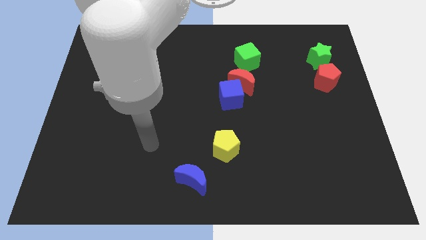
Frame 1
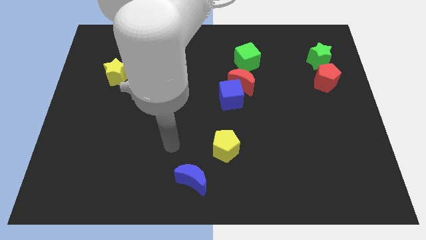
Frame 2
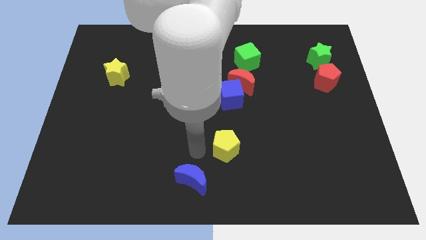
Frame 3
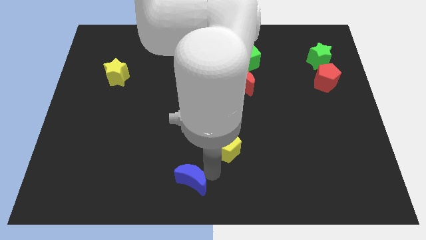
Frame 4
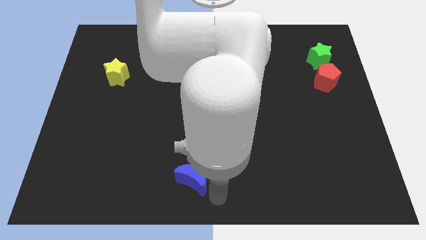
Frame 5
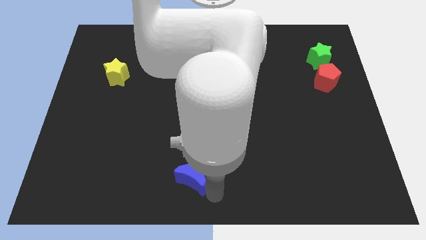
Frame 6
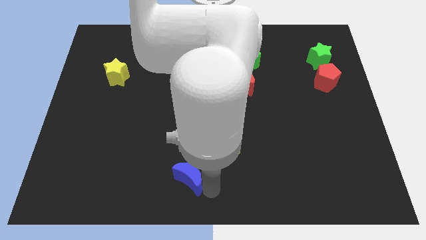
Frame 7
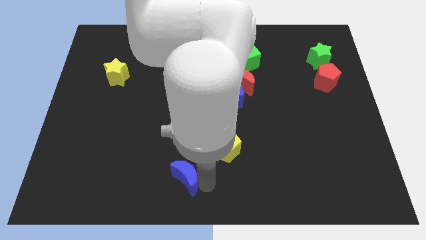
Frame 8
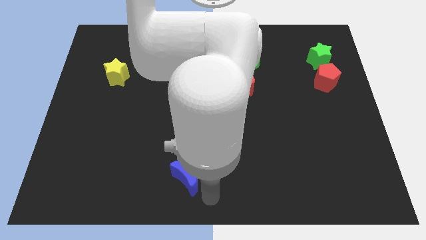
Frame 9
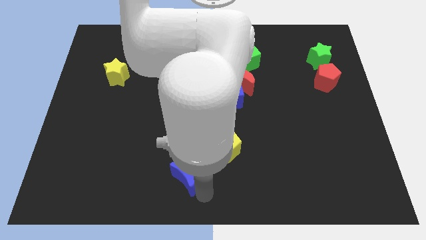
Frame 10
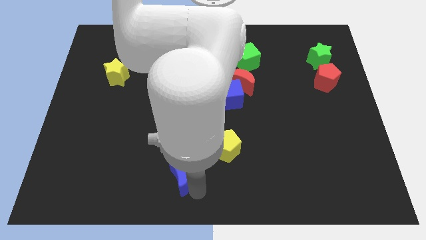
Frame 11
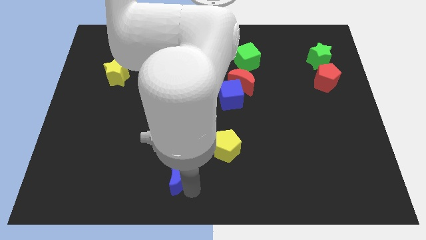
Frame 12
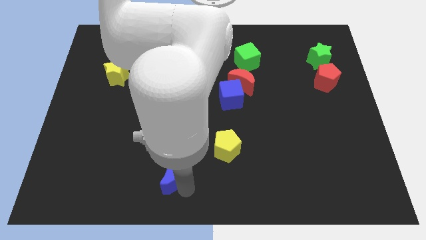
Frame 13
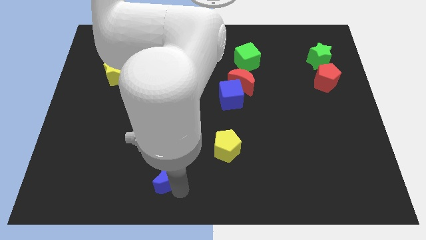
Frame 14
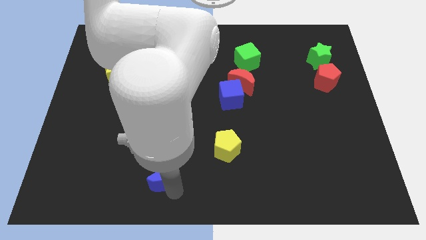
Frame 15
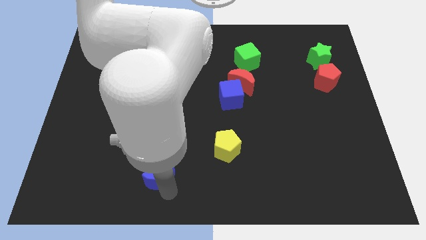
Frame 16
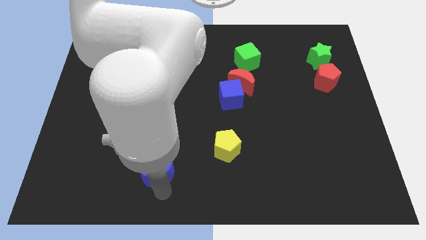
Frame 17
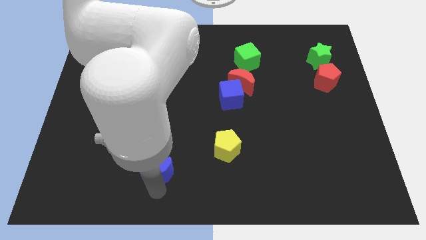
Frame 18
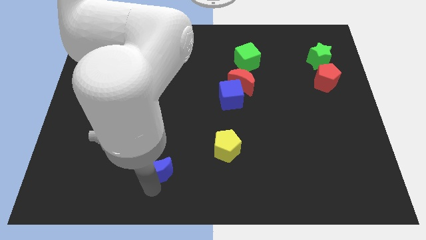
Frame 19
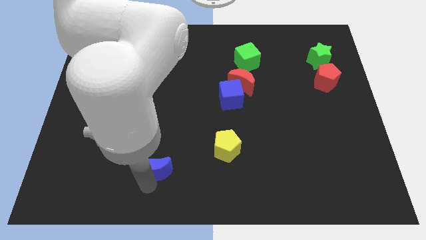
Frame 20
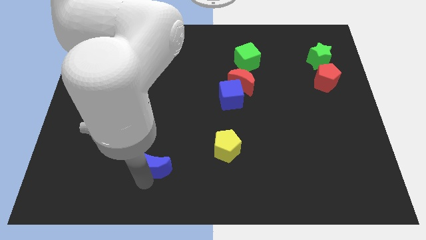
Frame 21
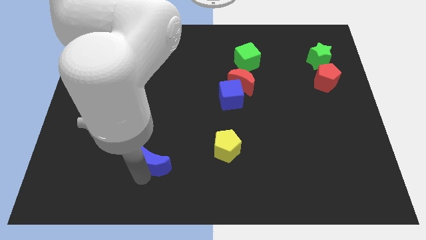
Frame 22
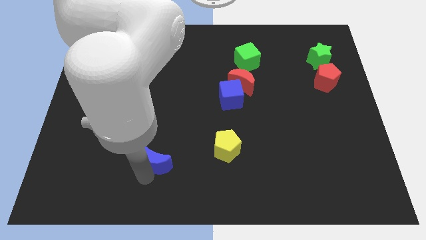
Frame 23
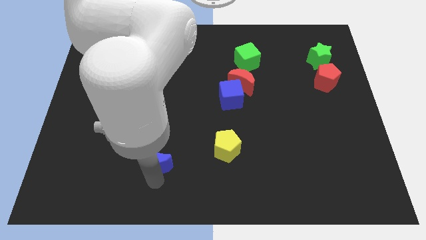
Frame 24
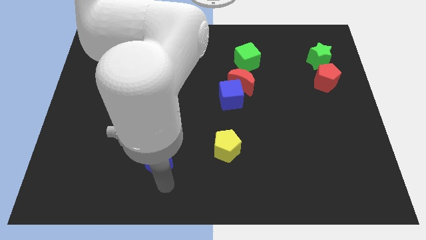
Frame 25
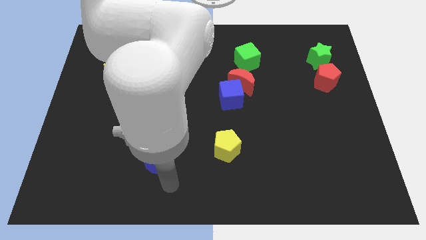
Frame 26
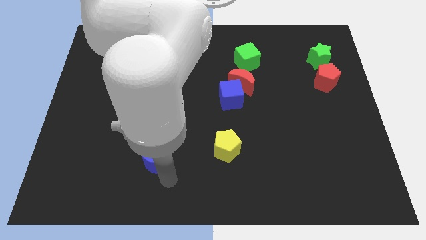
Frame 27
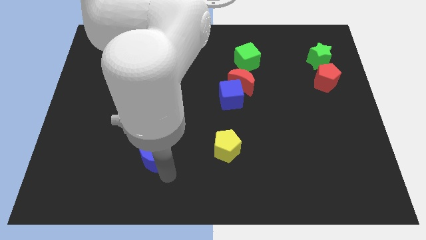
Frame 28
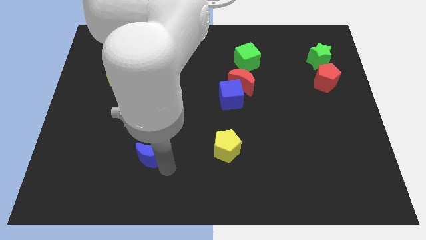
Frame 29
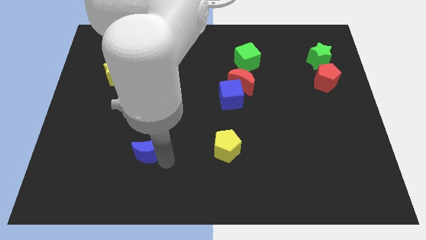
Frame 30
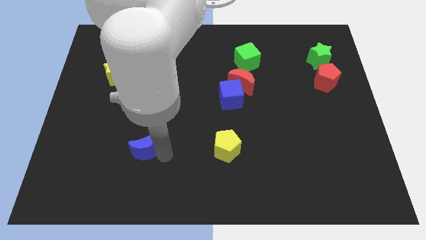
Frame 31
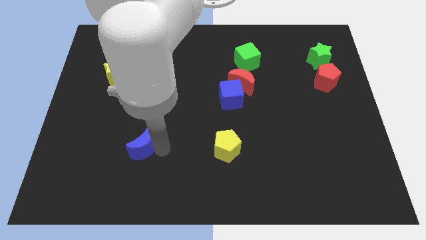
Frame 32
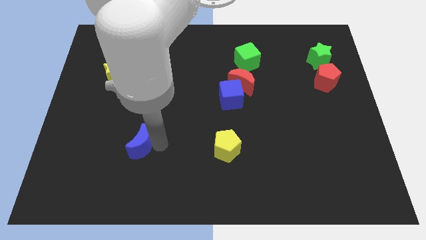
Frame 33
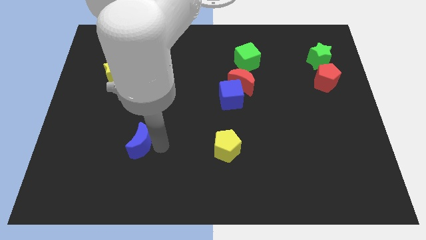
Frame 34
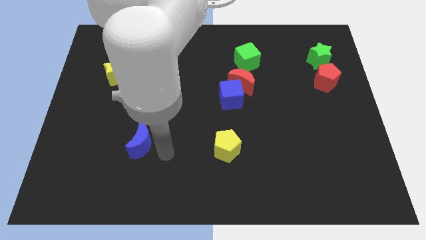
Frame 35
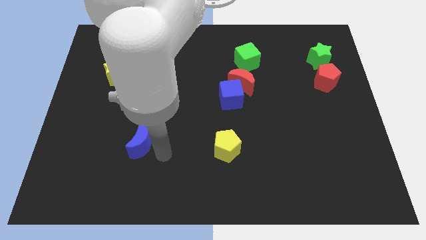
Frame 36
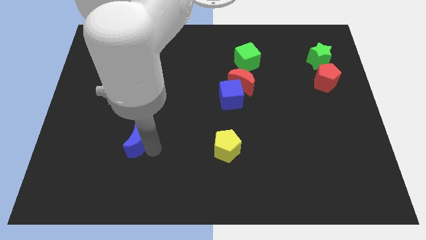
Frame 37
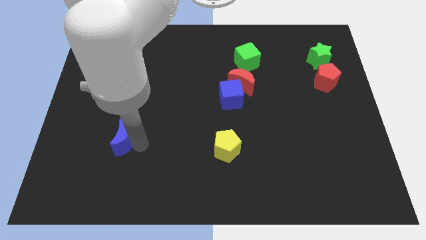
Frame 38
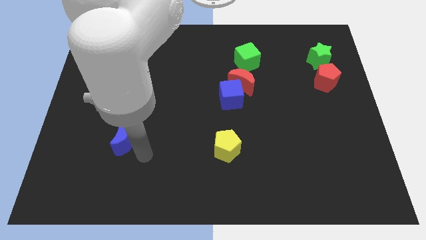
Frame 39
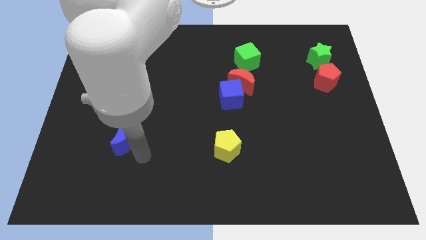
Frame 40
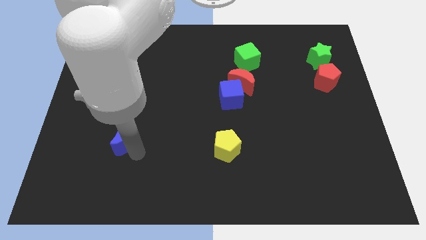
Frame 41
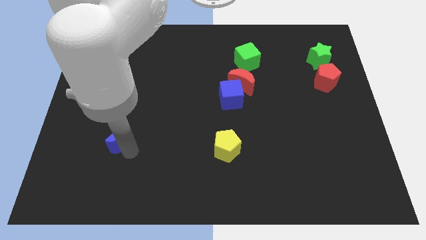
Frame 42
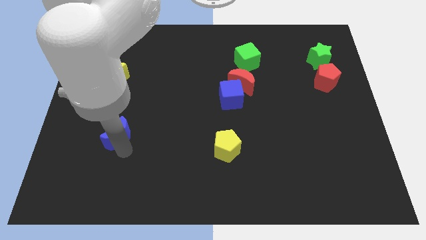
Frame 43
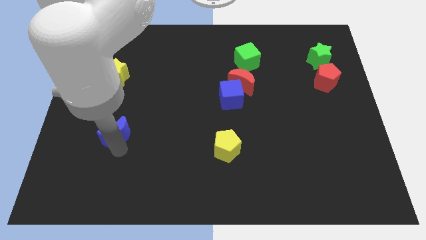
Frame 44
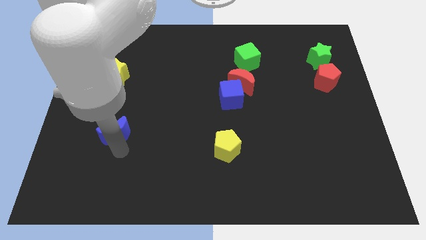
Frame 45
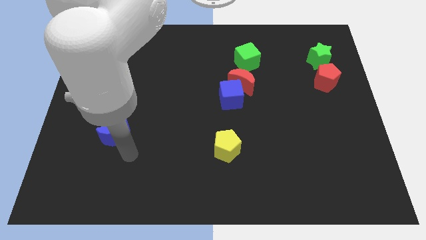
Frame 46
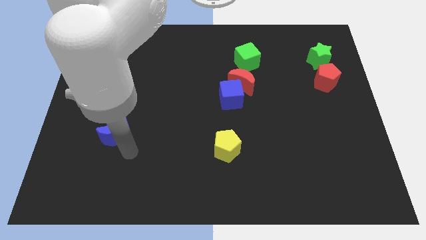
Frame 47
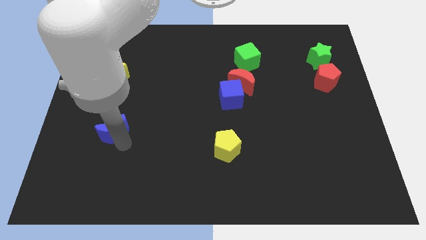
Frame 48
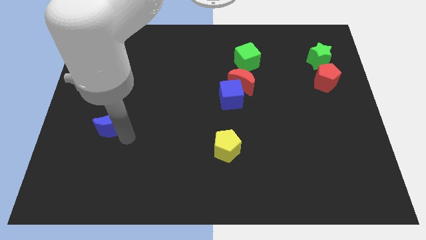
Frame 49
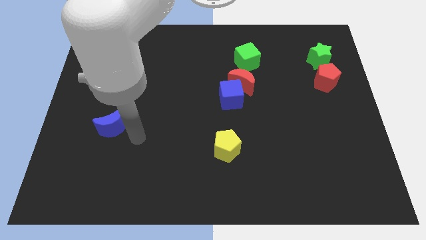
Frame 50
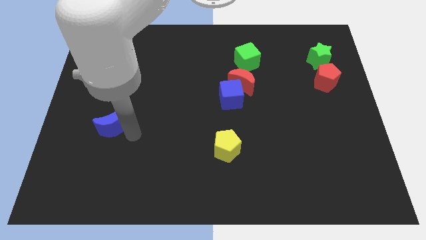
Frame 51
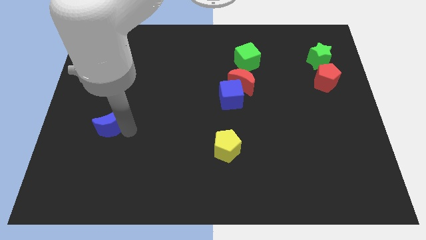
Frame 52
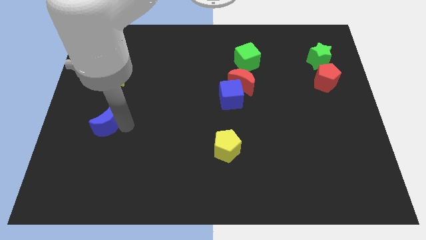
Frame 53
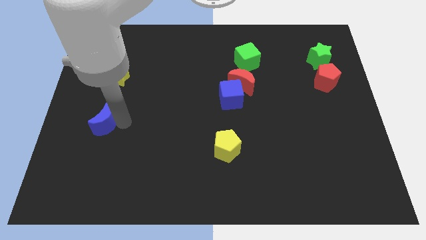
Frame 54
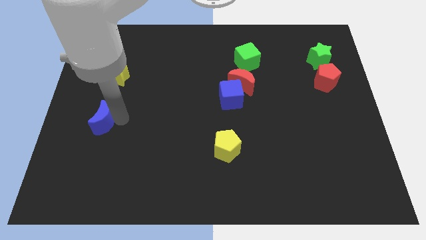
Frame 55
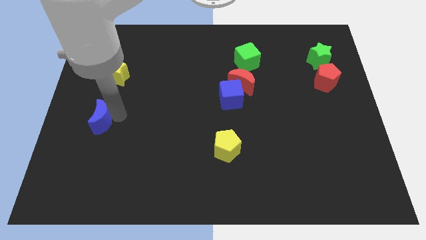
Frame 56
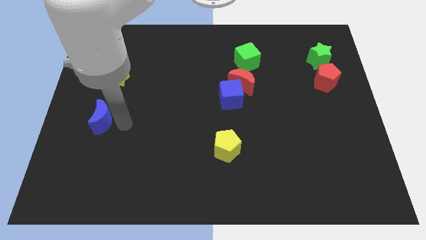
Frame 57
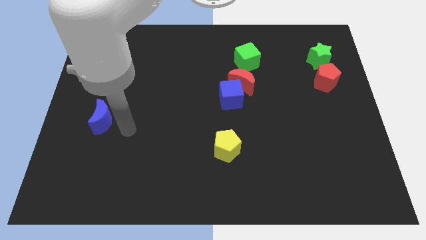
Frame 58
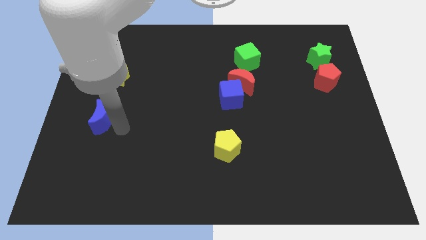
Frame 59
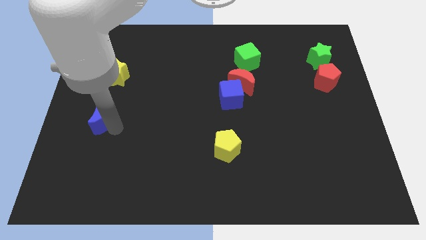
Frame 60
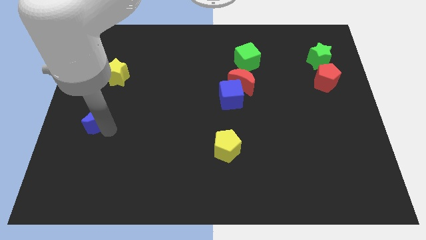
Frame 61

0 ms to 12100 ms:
move the blue moon to the left side of the board

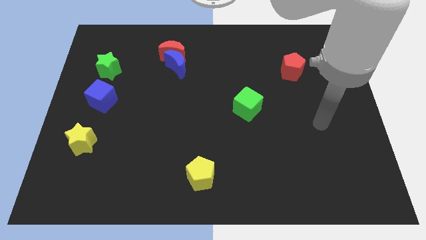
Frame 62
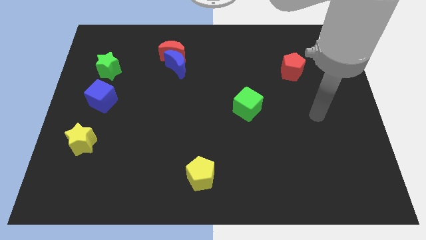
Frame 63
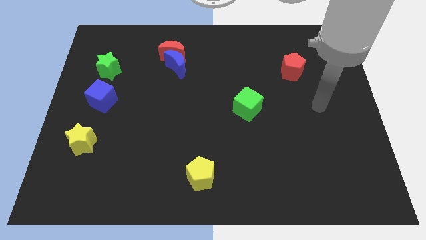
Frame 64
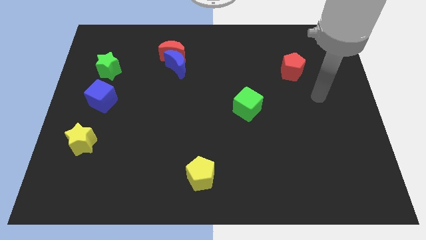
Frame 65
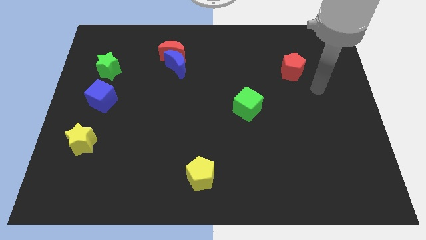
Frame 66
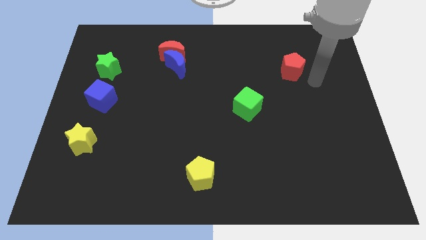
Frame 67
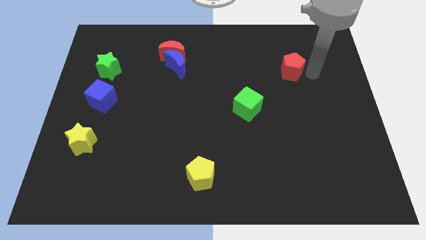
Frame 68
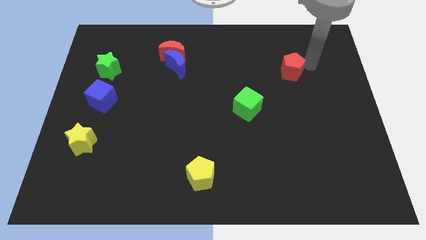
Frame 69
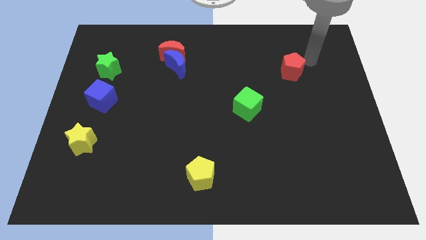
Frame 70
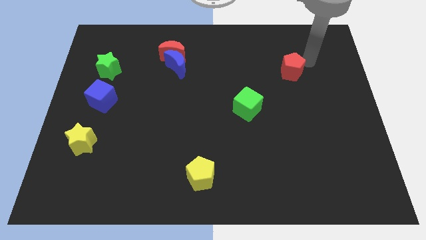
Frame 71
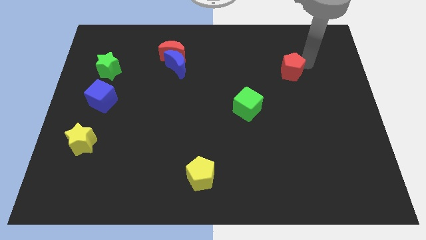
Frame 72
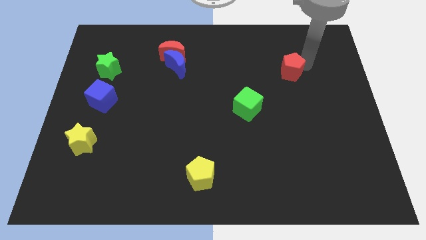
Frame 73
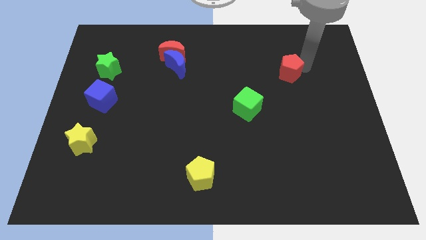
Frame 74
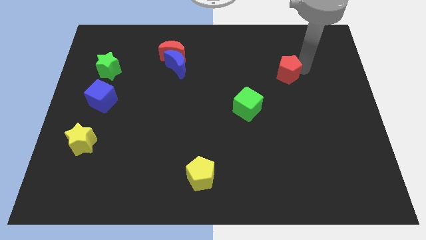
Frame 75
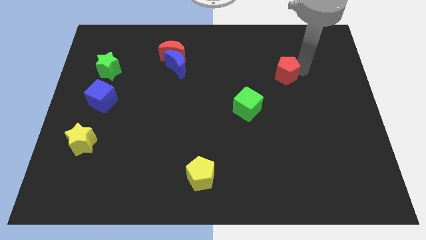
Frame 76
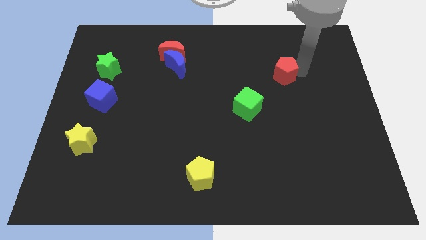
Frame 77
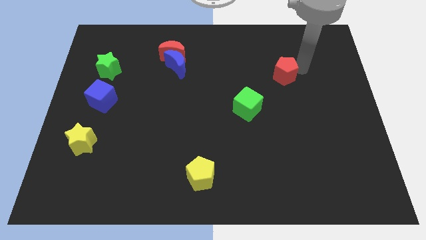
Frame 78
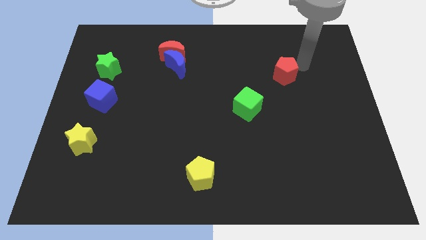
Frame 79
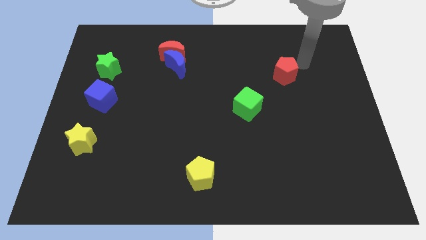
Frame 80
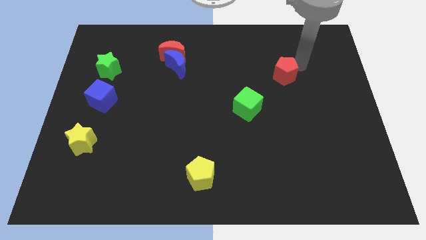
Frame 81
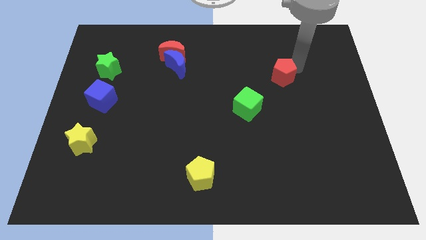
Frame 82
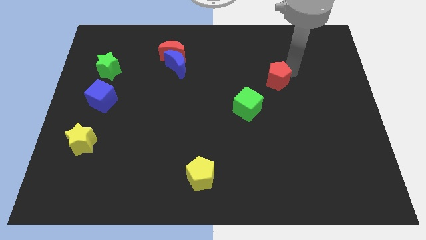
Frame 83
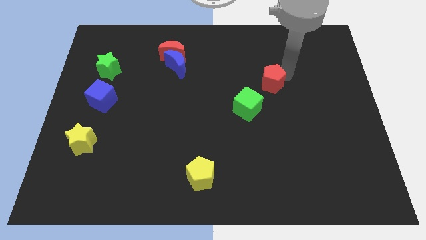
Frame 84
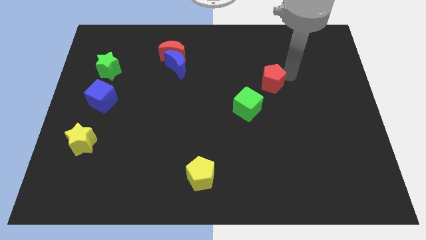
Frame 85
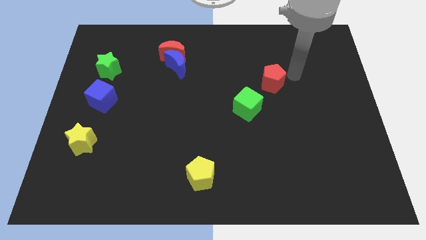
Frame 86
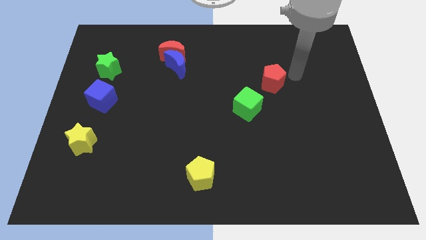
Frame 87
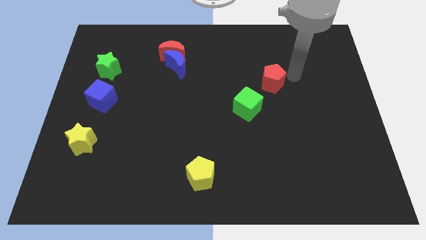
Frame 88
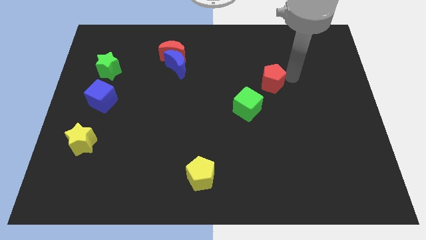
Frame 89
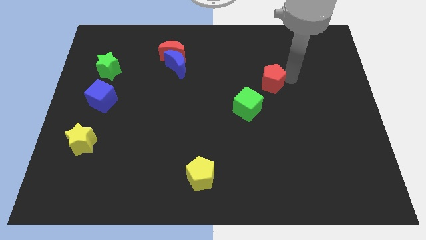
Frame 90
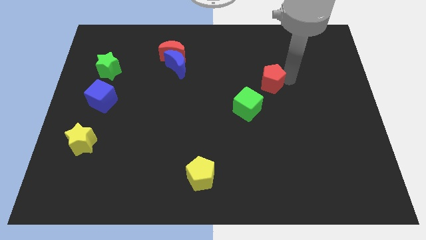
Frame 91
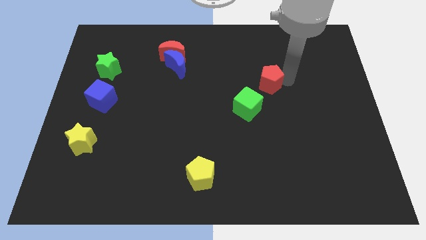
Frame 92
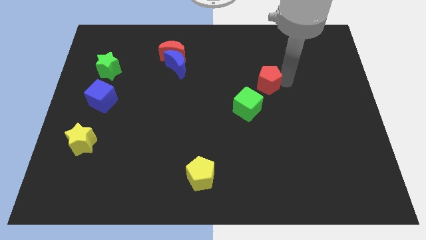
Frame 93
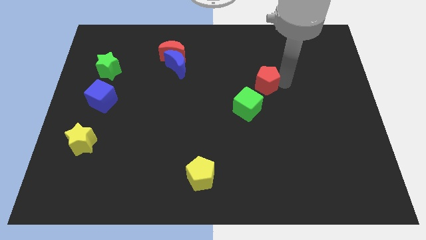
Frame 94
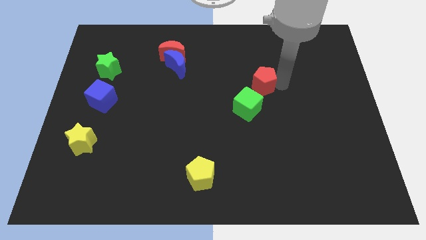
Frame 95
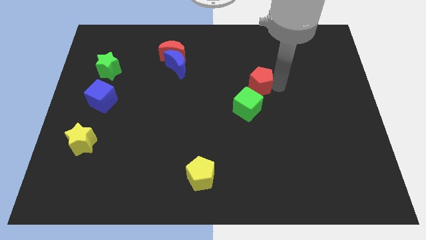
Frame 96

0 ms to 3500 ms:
put the red pentagon to the middle of the board
